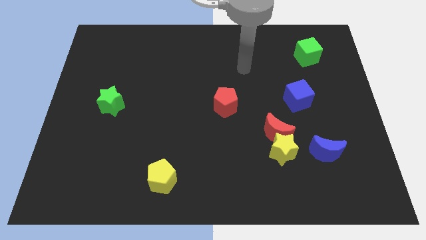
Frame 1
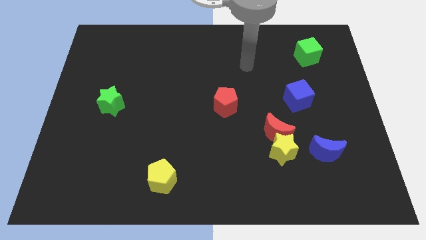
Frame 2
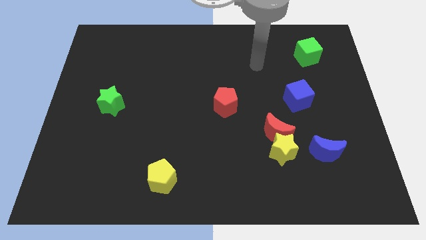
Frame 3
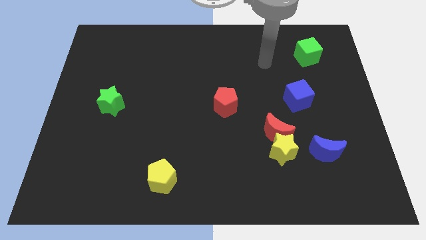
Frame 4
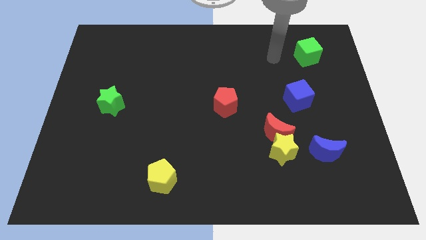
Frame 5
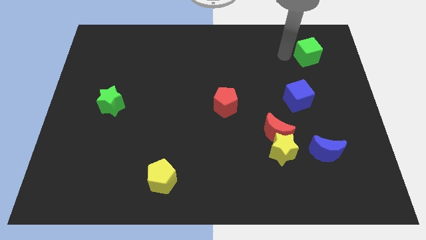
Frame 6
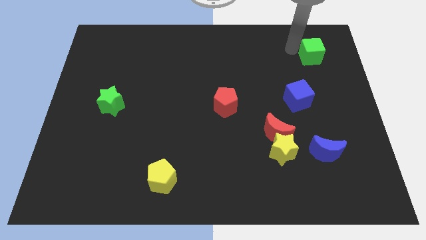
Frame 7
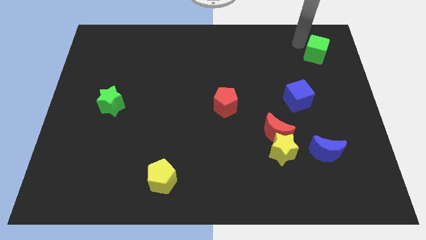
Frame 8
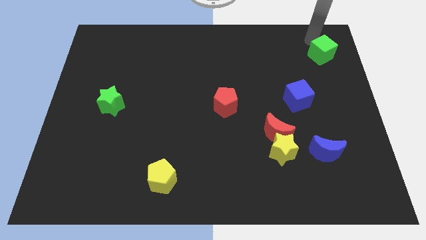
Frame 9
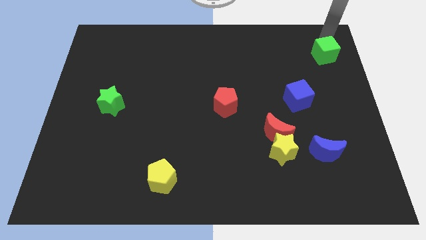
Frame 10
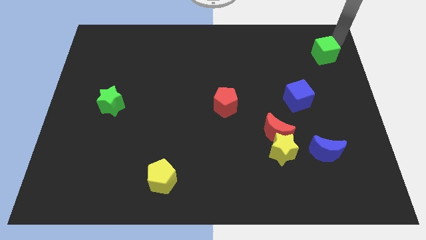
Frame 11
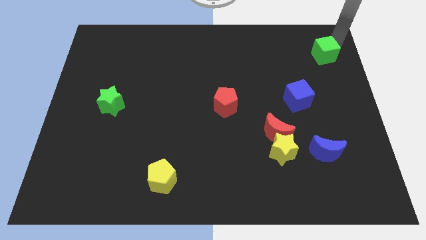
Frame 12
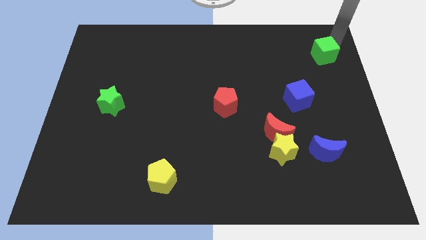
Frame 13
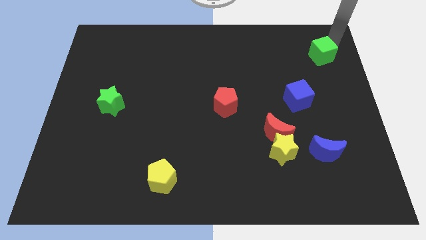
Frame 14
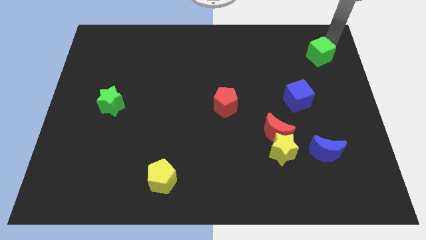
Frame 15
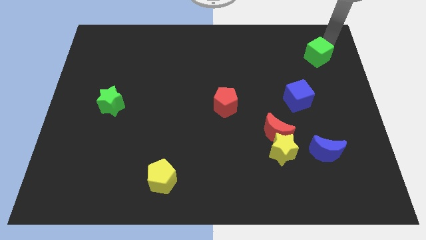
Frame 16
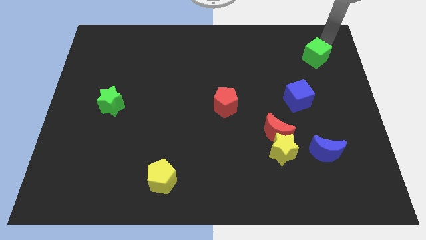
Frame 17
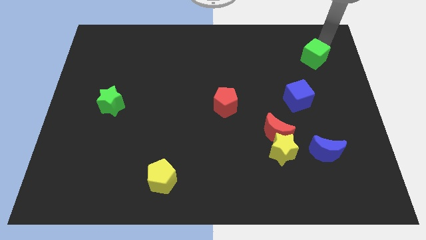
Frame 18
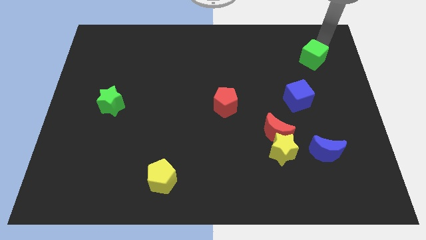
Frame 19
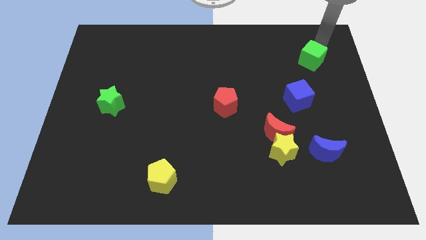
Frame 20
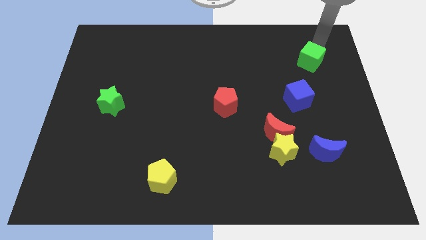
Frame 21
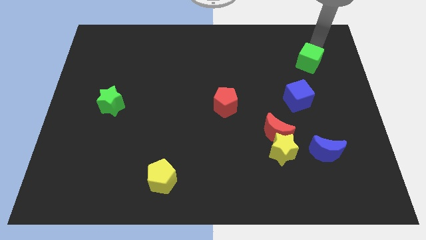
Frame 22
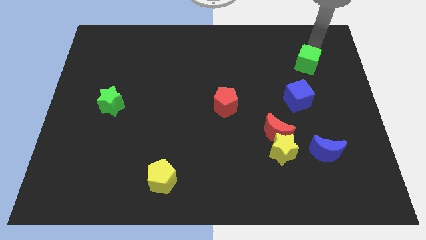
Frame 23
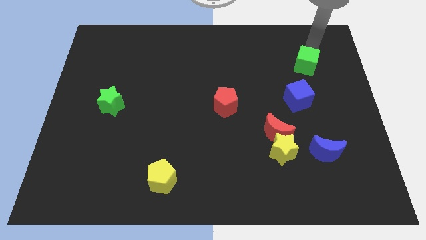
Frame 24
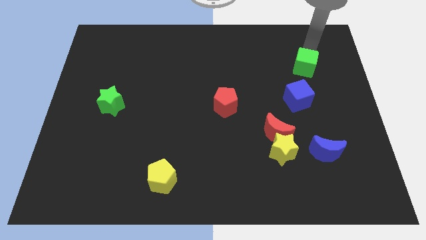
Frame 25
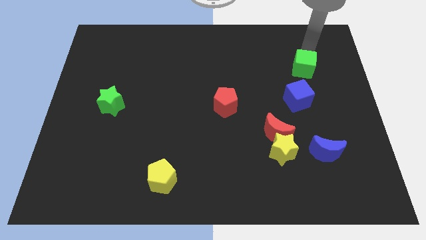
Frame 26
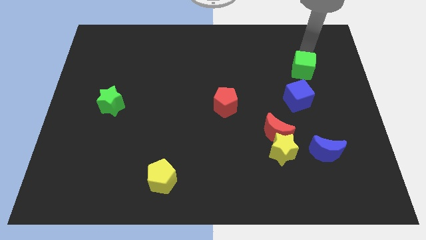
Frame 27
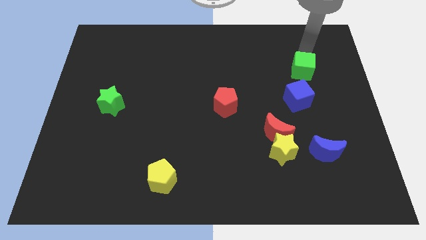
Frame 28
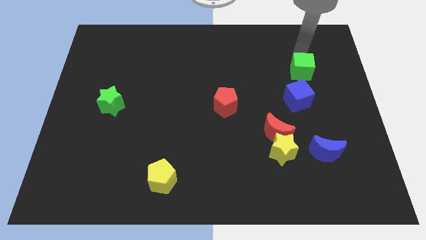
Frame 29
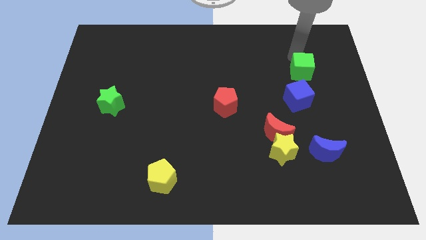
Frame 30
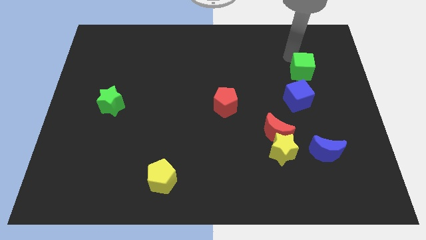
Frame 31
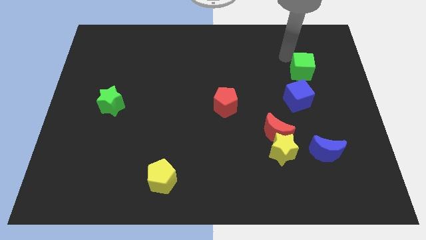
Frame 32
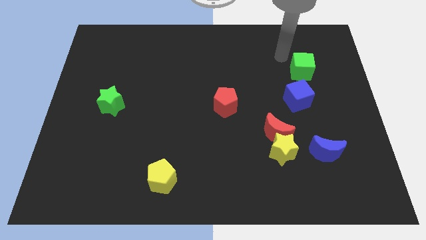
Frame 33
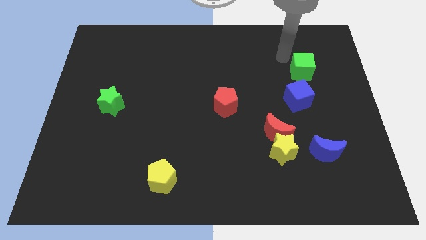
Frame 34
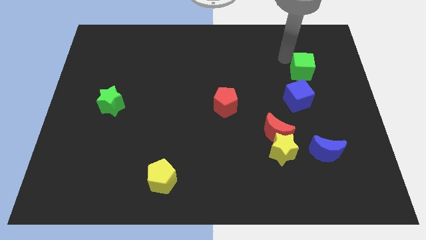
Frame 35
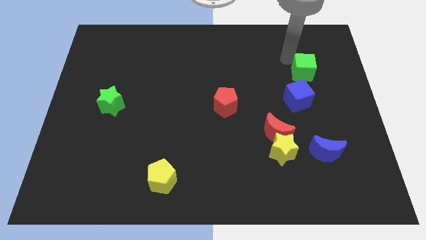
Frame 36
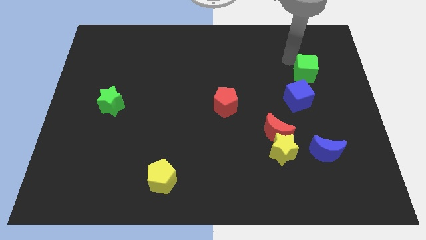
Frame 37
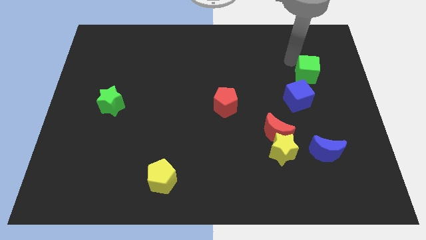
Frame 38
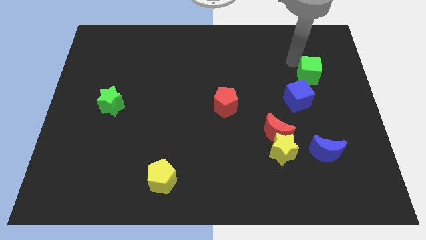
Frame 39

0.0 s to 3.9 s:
push the green cube downwards a bit

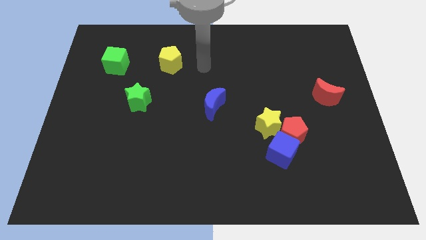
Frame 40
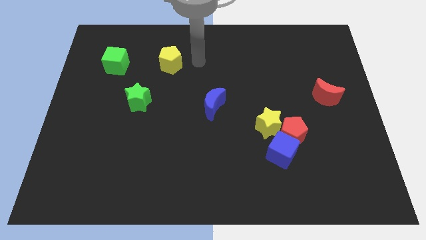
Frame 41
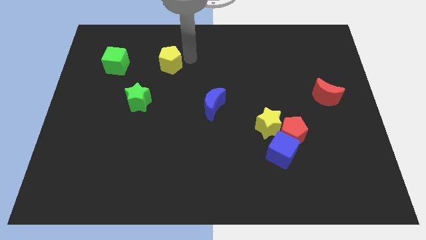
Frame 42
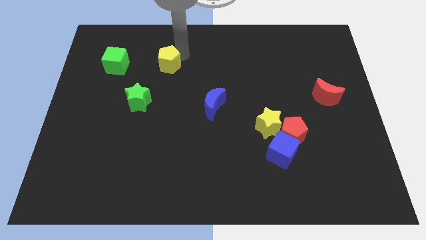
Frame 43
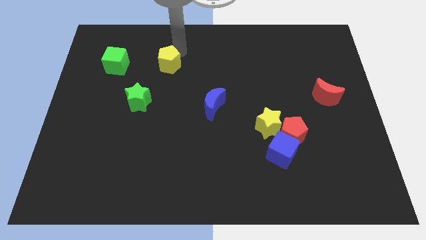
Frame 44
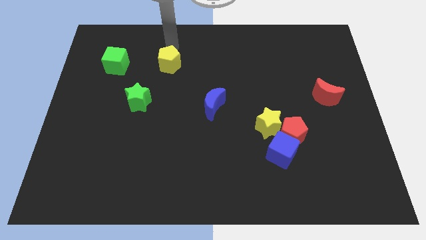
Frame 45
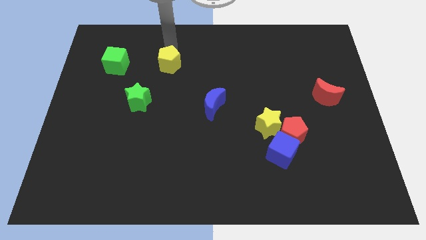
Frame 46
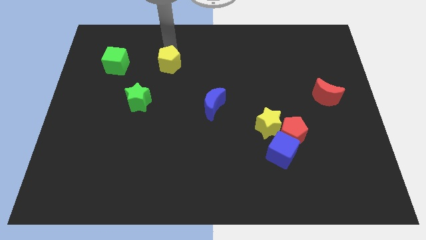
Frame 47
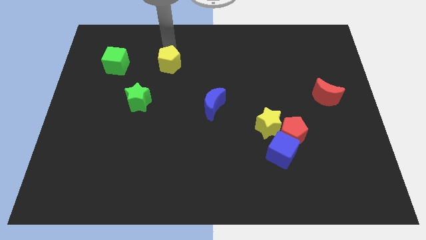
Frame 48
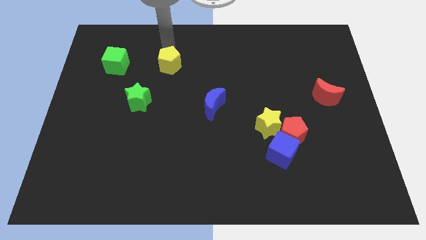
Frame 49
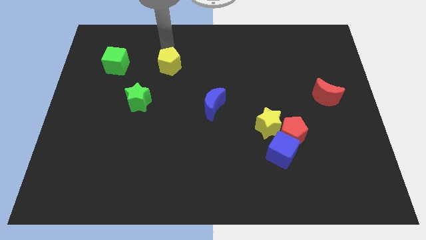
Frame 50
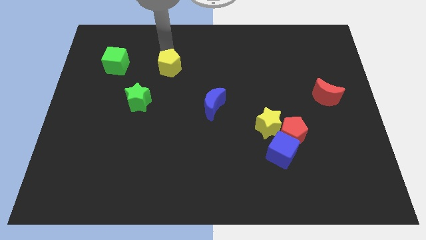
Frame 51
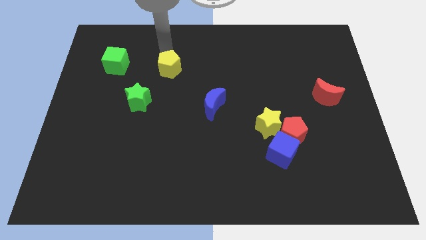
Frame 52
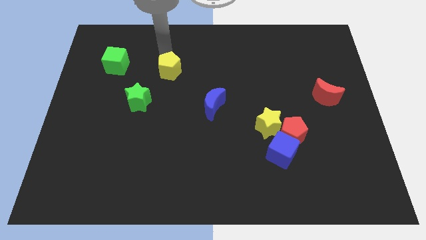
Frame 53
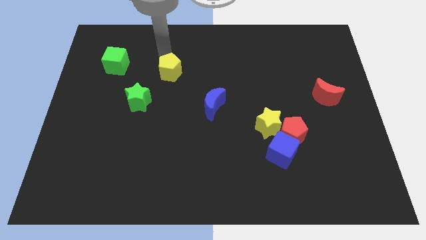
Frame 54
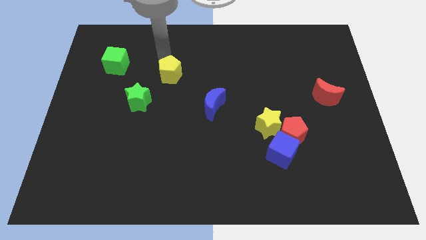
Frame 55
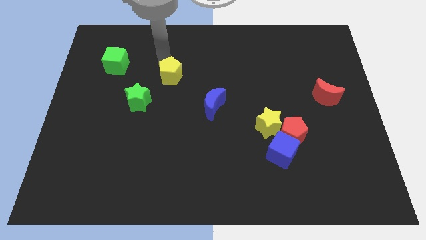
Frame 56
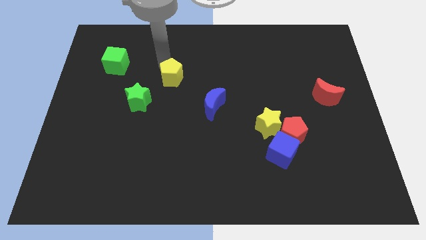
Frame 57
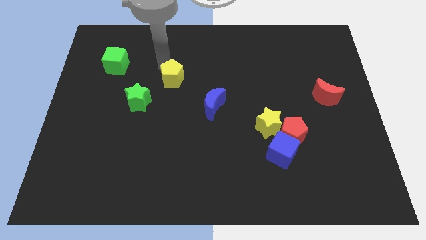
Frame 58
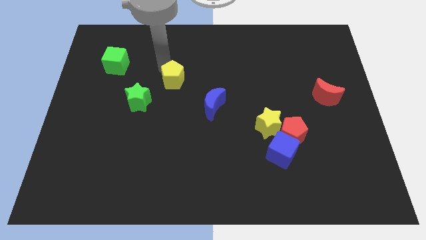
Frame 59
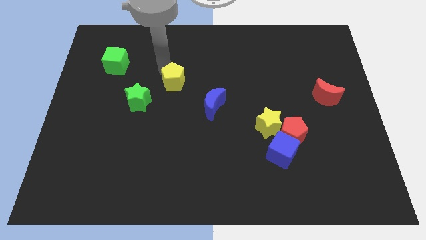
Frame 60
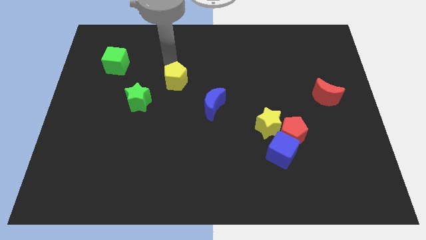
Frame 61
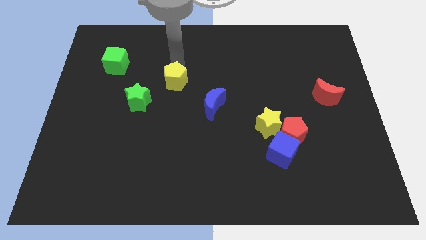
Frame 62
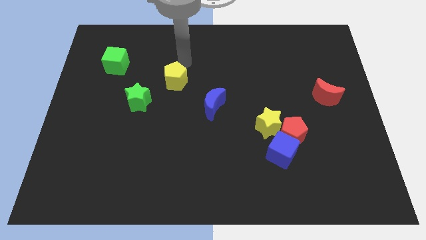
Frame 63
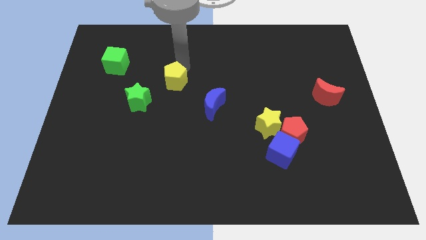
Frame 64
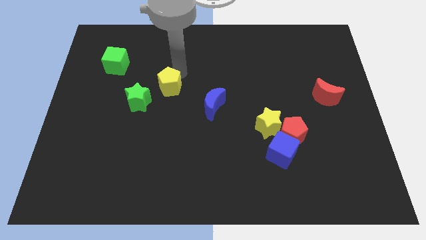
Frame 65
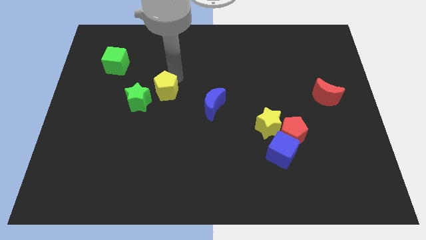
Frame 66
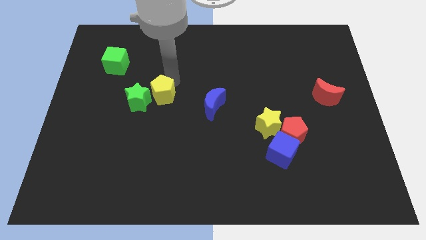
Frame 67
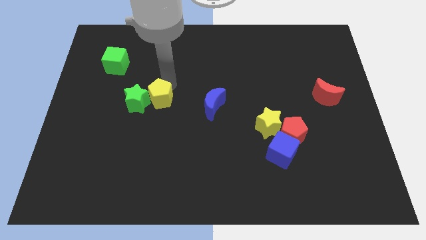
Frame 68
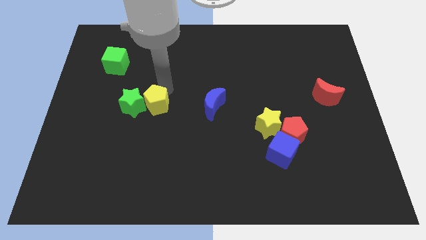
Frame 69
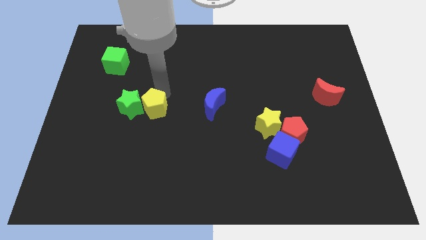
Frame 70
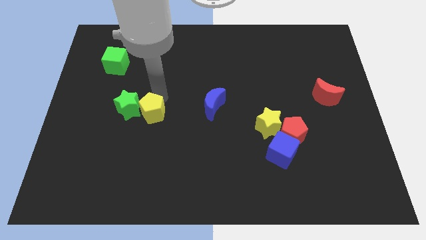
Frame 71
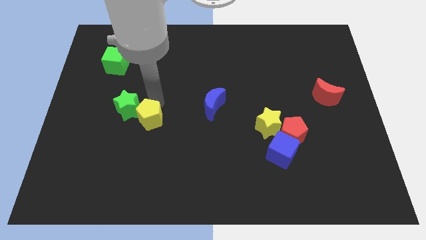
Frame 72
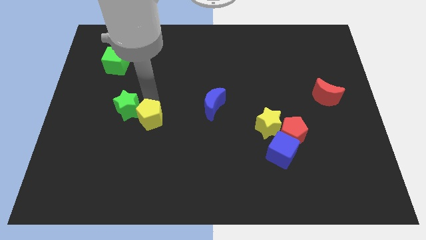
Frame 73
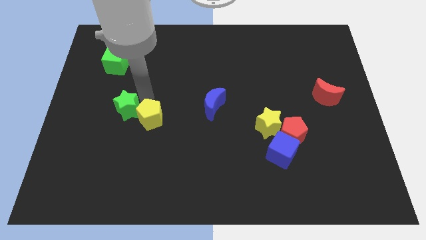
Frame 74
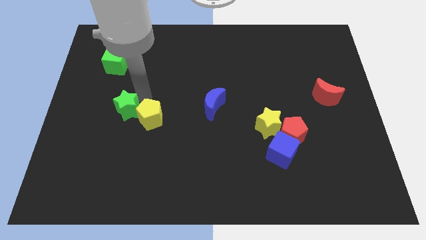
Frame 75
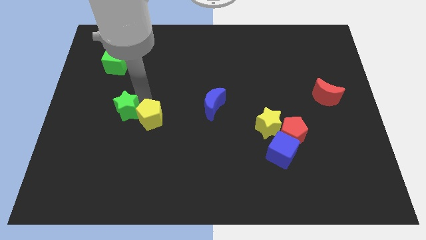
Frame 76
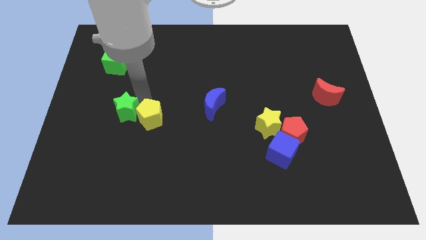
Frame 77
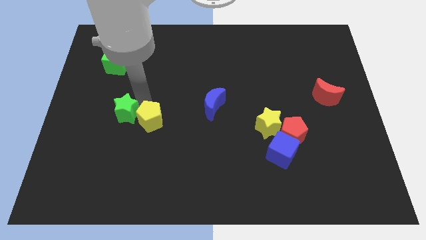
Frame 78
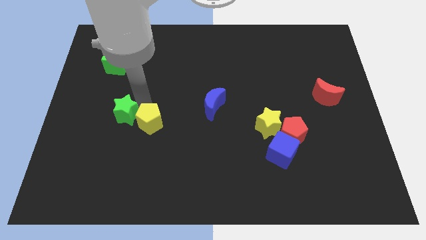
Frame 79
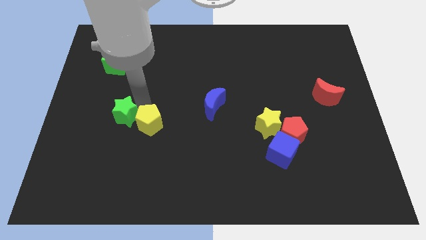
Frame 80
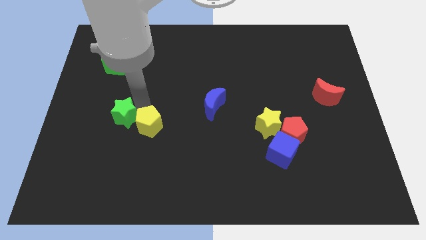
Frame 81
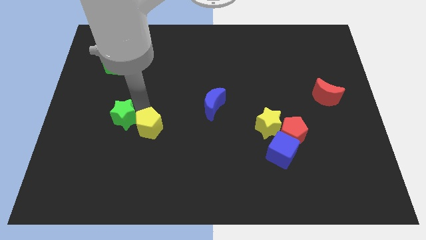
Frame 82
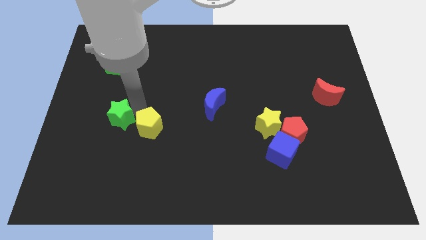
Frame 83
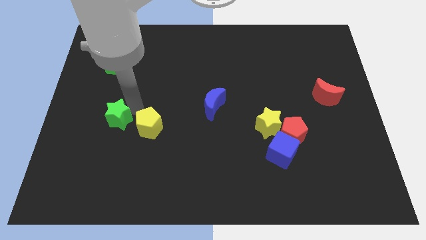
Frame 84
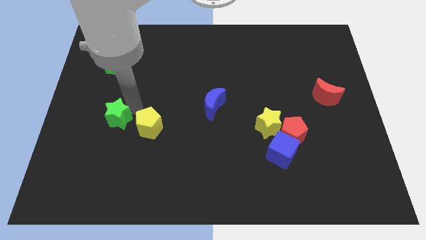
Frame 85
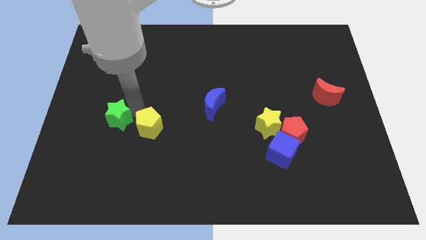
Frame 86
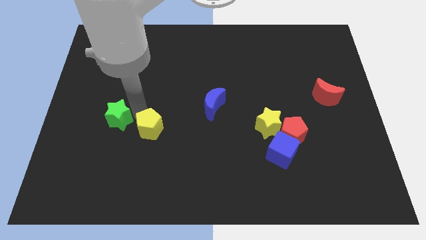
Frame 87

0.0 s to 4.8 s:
push the yellow pentagon downwards

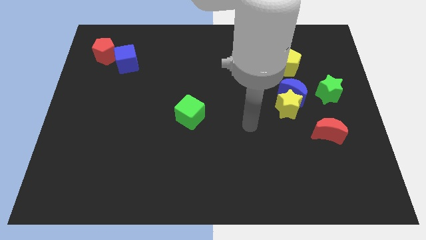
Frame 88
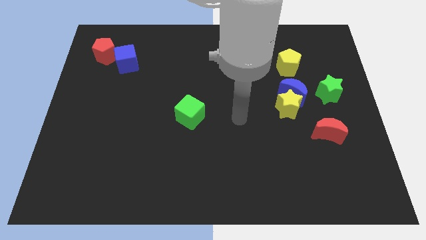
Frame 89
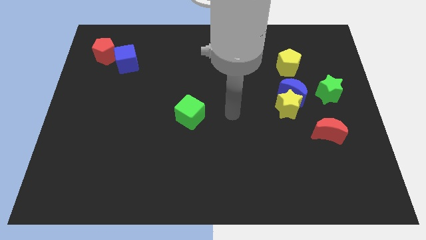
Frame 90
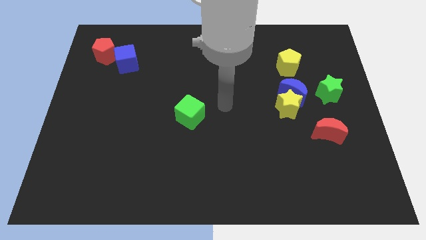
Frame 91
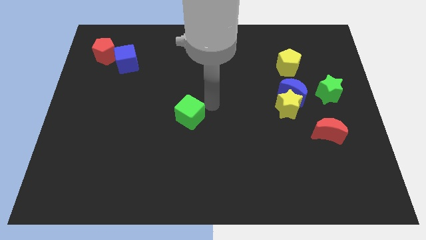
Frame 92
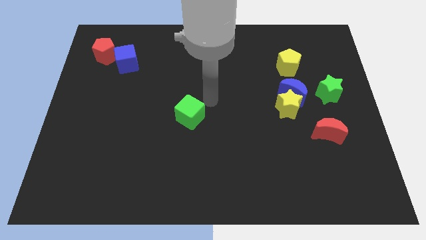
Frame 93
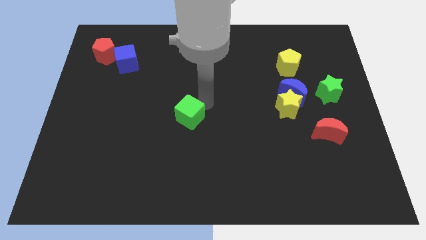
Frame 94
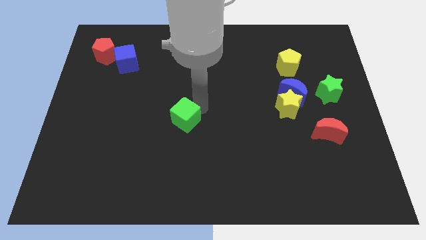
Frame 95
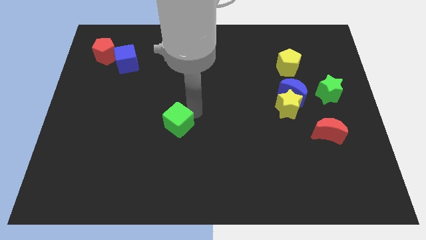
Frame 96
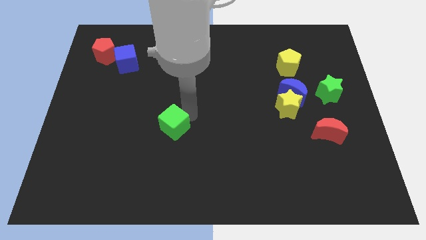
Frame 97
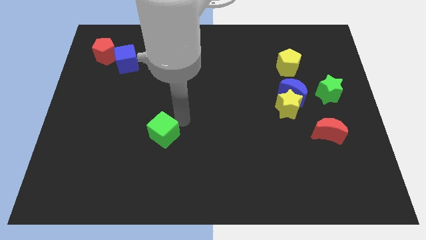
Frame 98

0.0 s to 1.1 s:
push the green cube down and then left a bit
